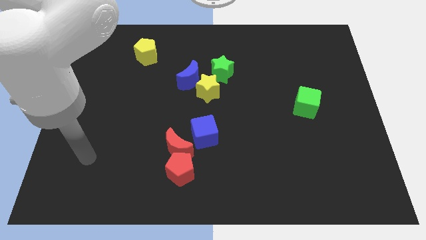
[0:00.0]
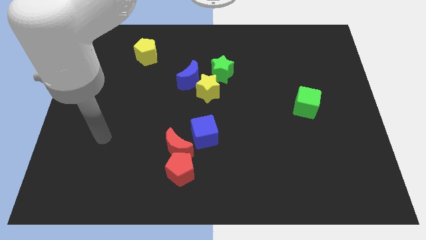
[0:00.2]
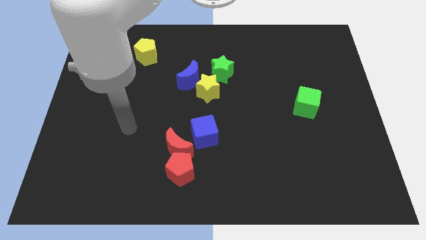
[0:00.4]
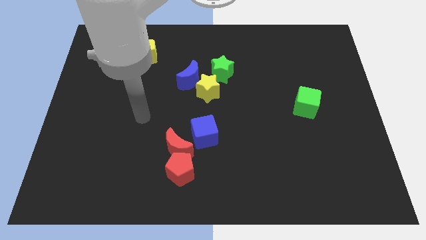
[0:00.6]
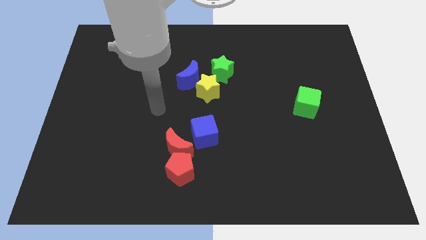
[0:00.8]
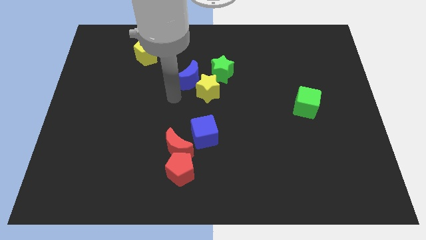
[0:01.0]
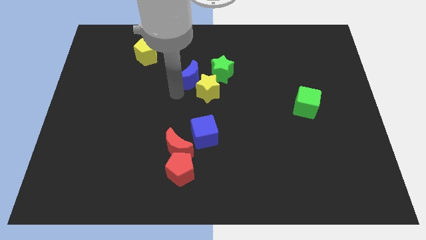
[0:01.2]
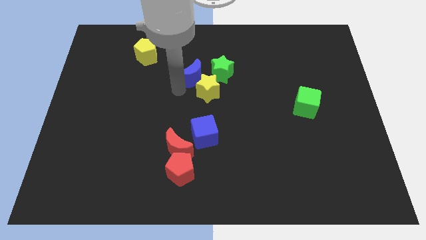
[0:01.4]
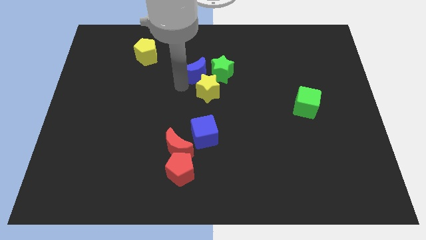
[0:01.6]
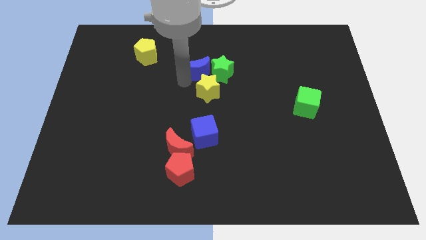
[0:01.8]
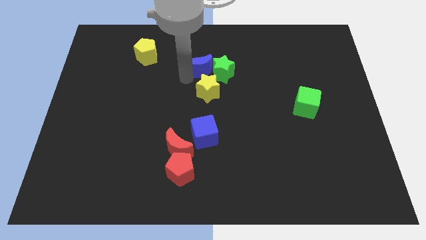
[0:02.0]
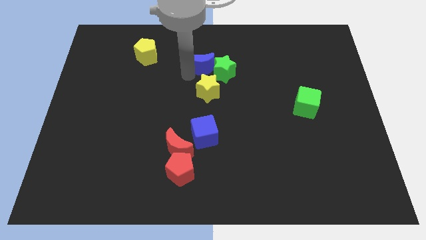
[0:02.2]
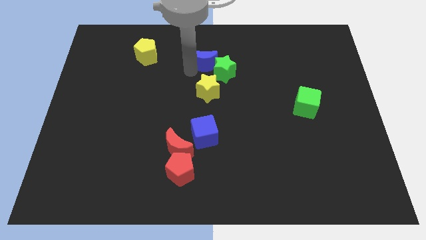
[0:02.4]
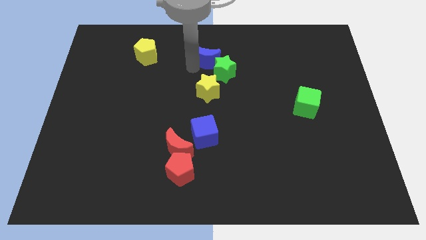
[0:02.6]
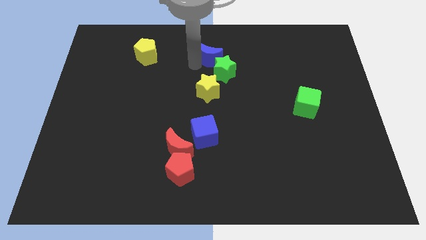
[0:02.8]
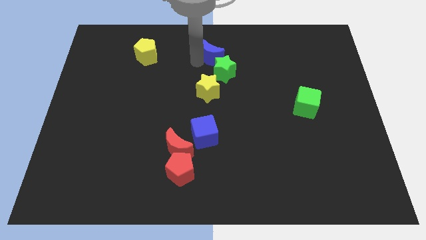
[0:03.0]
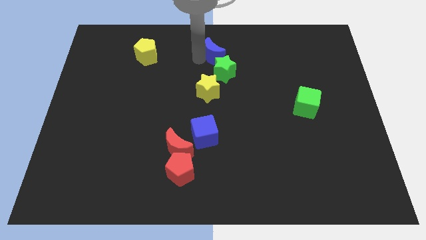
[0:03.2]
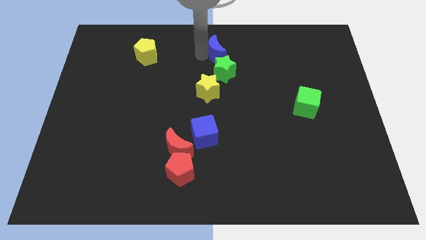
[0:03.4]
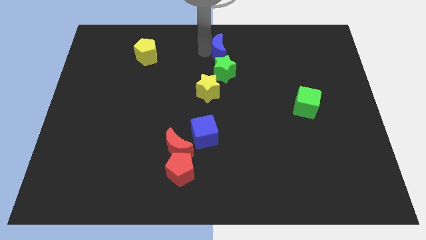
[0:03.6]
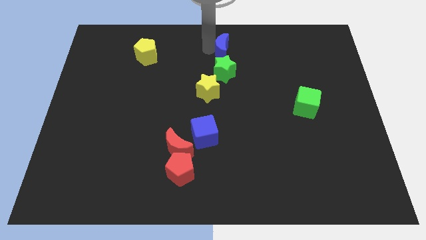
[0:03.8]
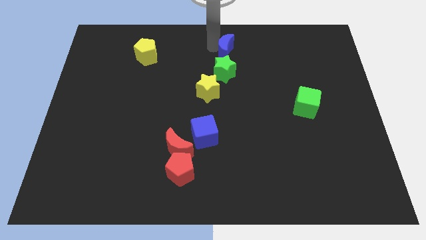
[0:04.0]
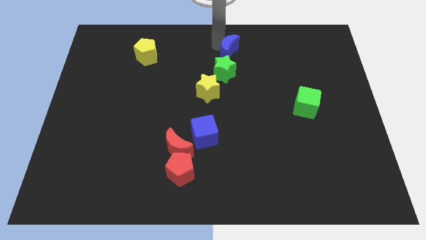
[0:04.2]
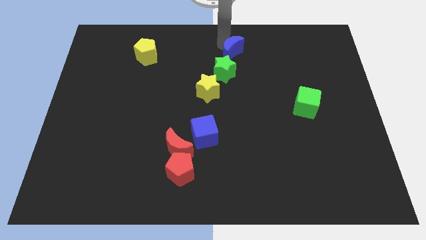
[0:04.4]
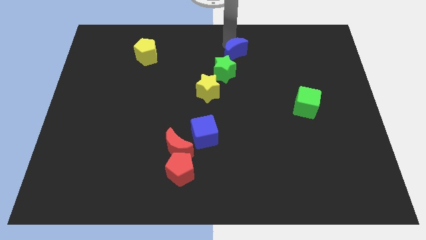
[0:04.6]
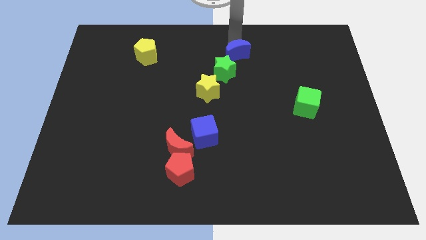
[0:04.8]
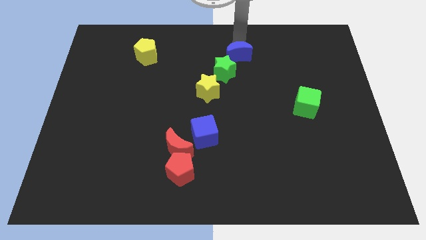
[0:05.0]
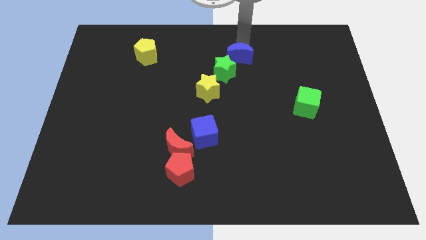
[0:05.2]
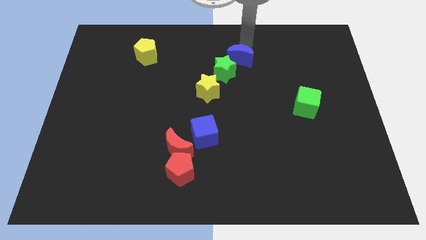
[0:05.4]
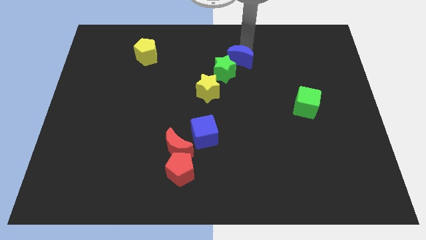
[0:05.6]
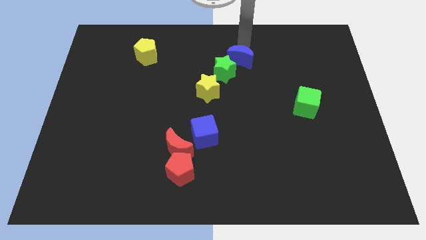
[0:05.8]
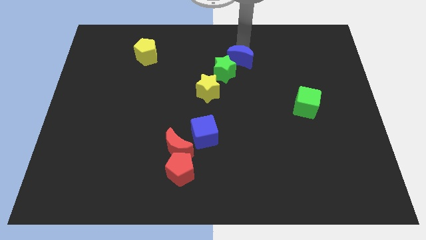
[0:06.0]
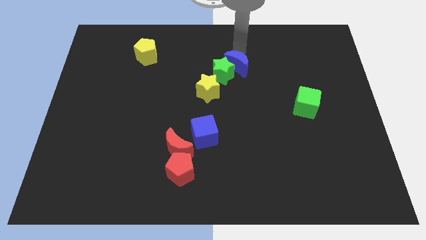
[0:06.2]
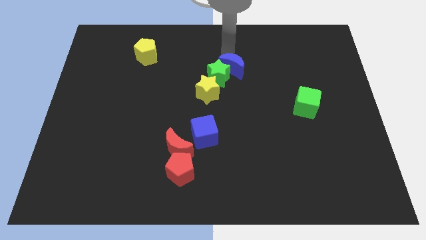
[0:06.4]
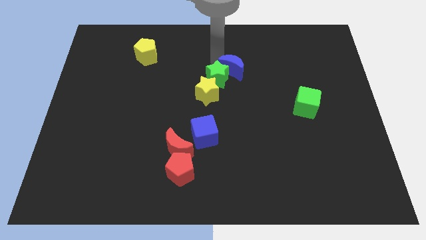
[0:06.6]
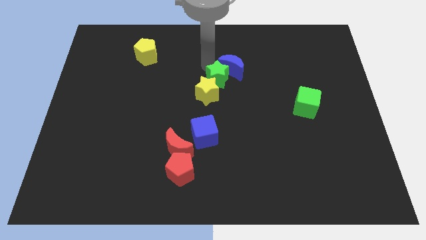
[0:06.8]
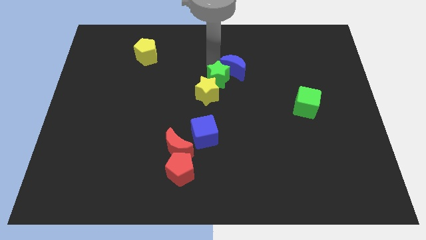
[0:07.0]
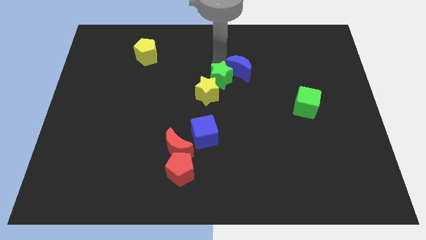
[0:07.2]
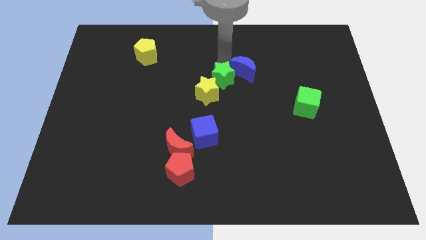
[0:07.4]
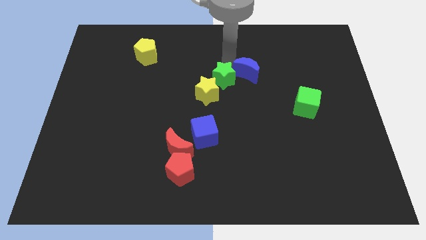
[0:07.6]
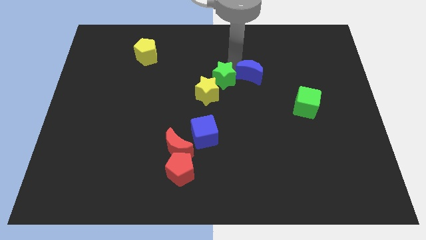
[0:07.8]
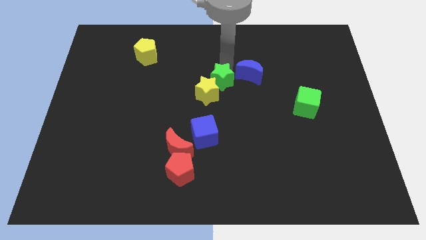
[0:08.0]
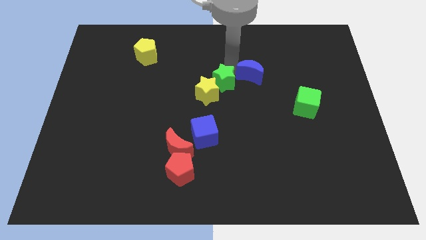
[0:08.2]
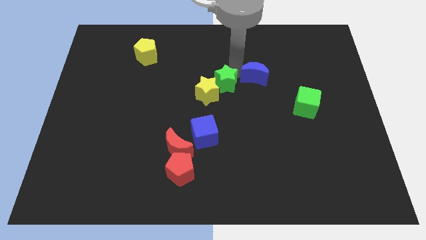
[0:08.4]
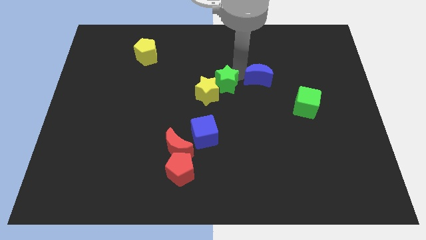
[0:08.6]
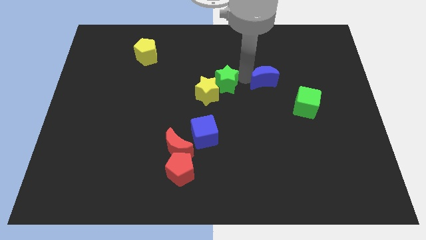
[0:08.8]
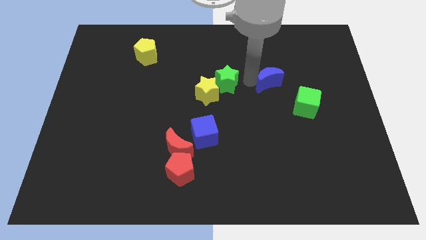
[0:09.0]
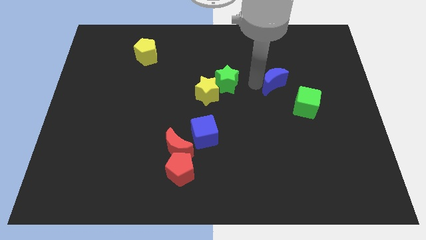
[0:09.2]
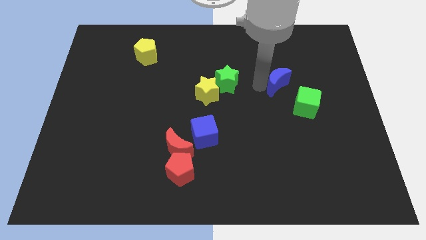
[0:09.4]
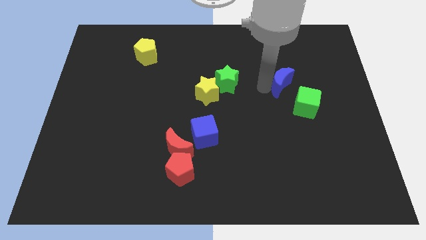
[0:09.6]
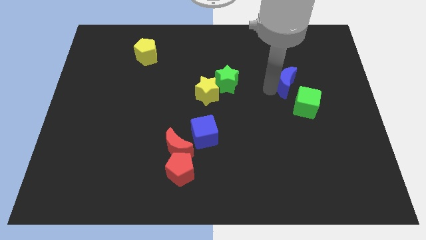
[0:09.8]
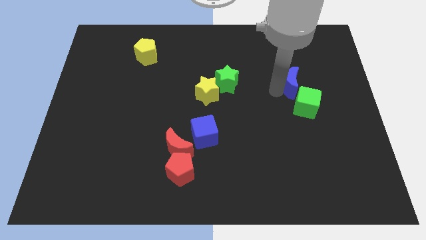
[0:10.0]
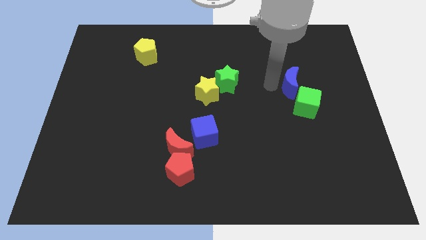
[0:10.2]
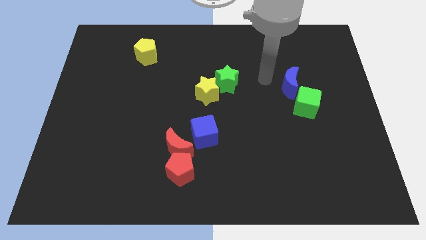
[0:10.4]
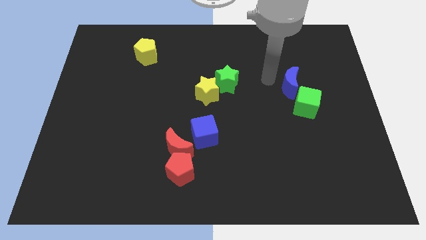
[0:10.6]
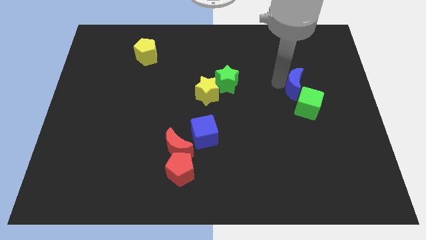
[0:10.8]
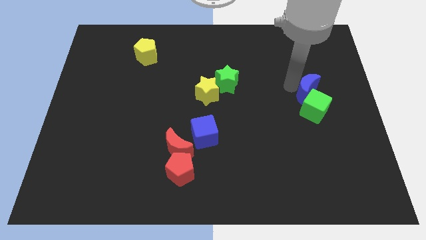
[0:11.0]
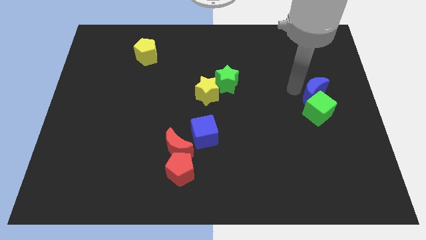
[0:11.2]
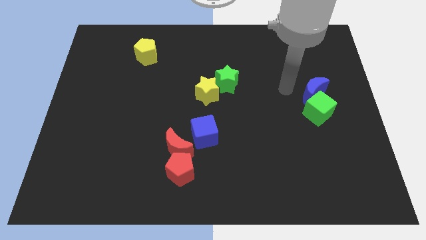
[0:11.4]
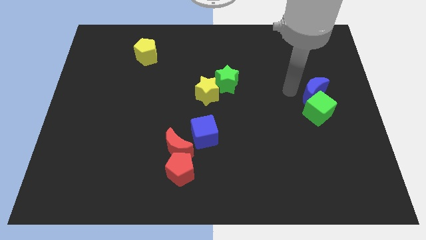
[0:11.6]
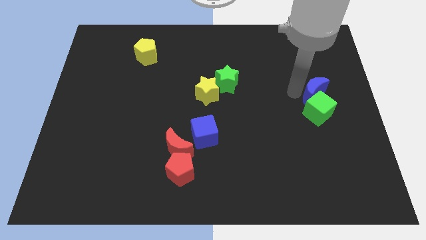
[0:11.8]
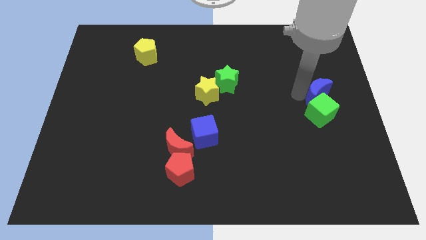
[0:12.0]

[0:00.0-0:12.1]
put the blue moon to the center right

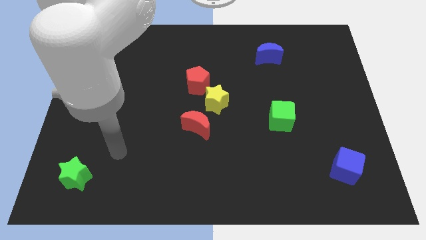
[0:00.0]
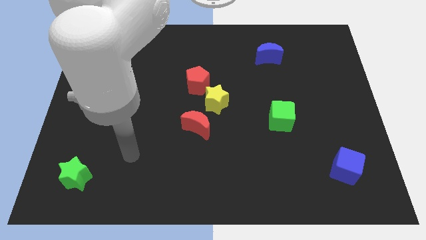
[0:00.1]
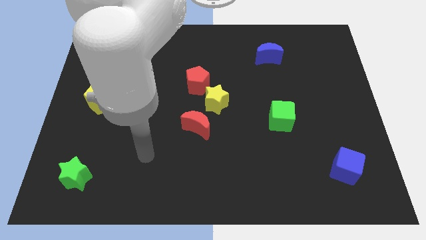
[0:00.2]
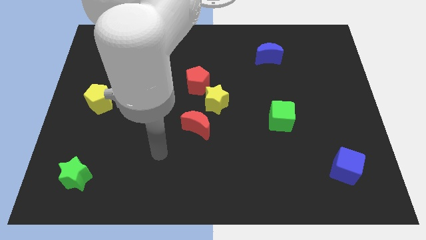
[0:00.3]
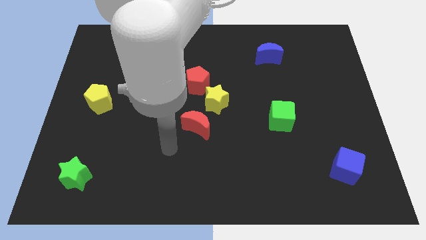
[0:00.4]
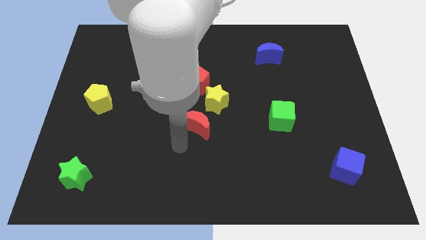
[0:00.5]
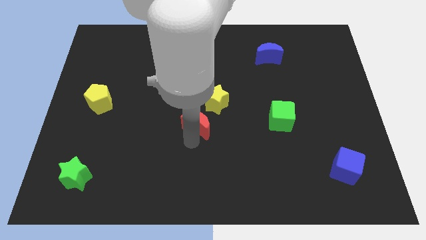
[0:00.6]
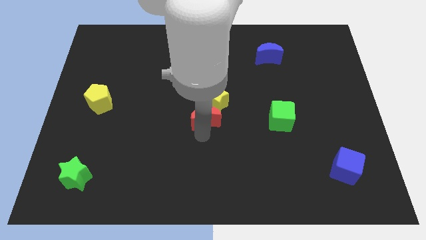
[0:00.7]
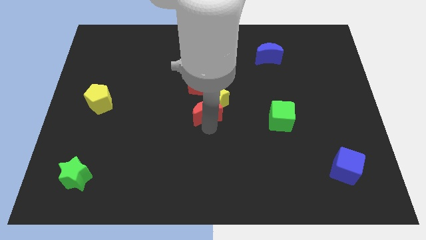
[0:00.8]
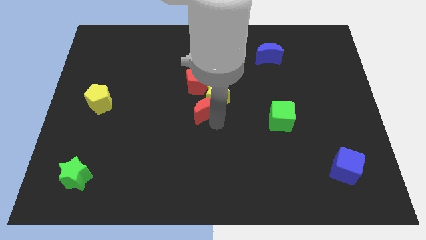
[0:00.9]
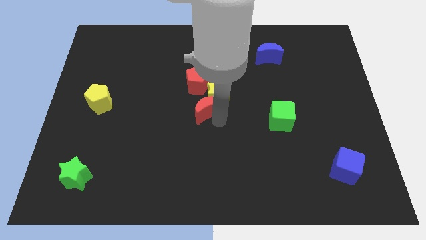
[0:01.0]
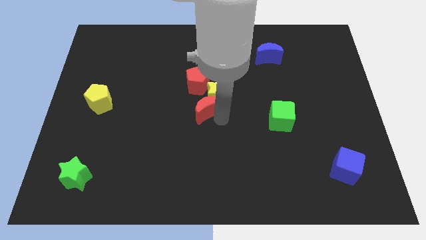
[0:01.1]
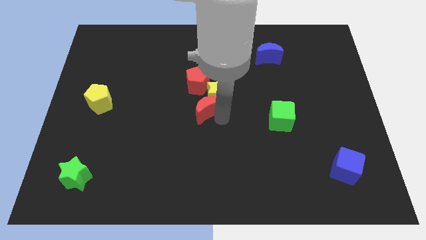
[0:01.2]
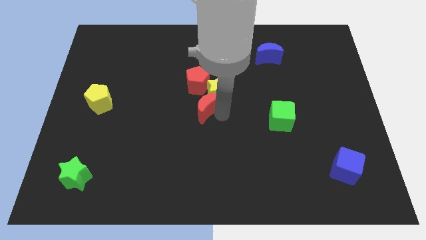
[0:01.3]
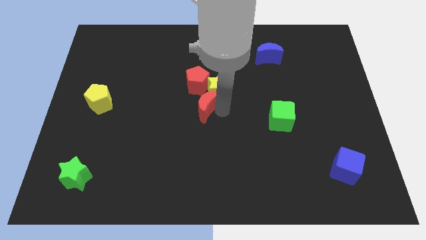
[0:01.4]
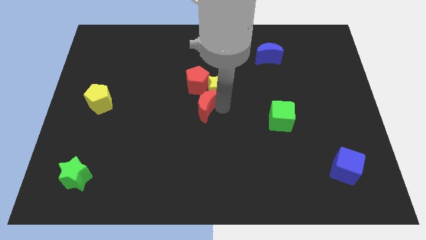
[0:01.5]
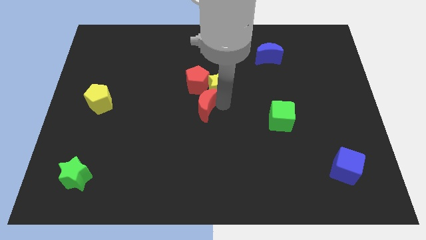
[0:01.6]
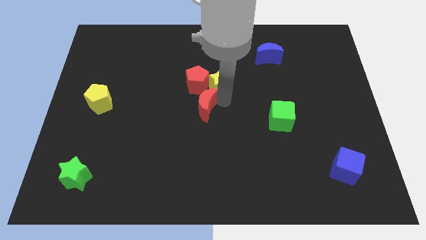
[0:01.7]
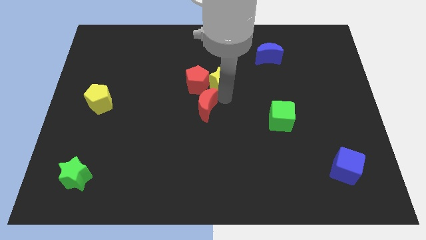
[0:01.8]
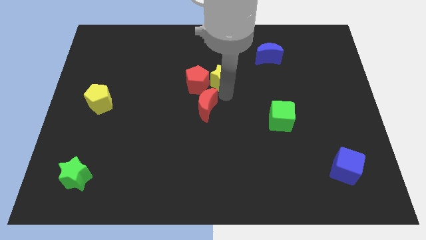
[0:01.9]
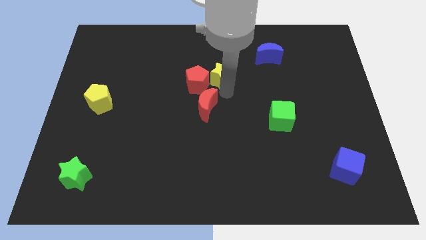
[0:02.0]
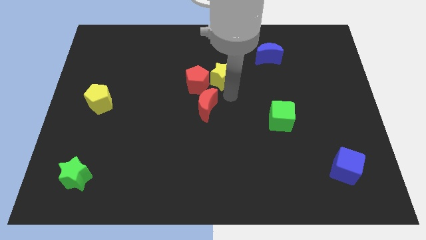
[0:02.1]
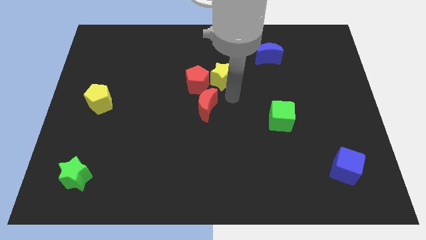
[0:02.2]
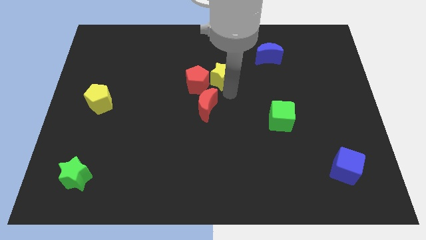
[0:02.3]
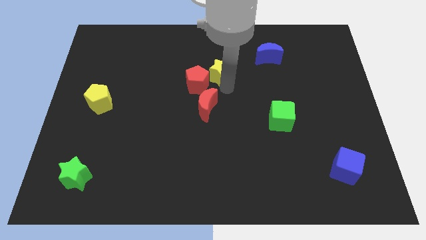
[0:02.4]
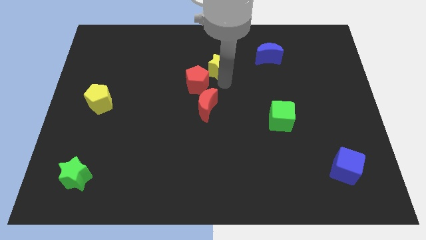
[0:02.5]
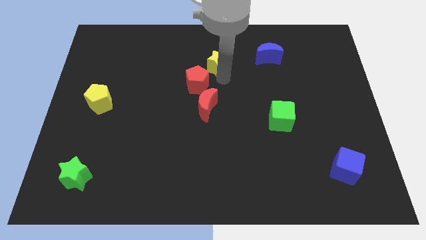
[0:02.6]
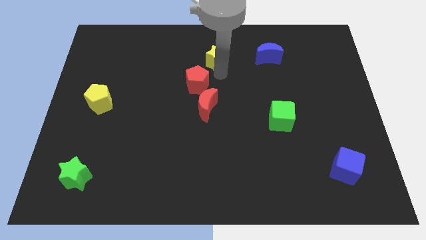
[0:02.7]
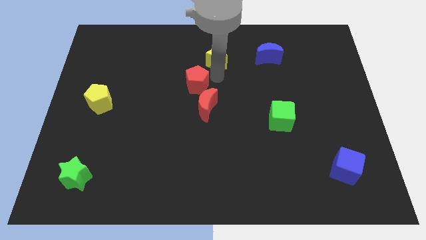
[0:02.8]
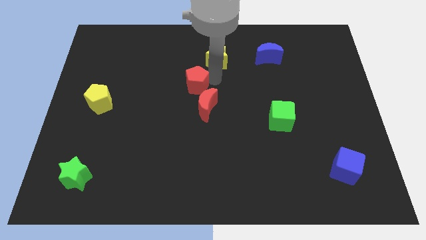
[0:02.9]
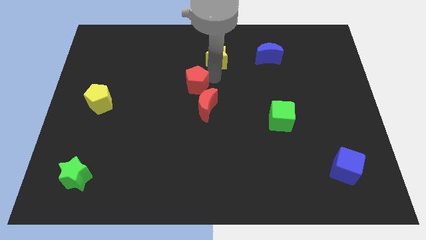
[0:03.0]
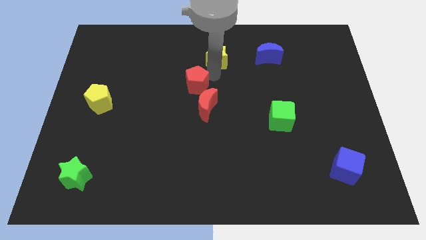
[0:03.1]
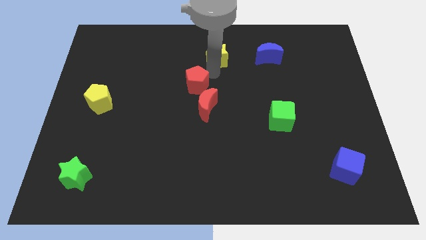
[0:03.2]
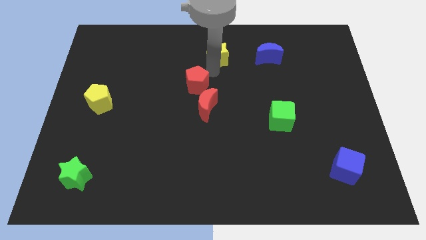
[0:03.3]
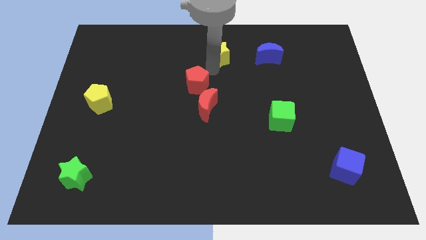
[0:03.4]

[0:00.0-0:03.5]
push the yellow star to the towards your base
